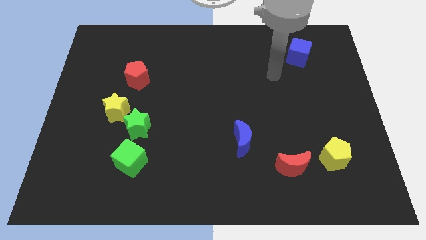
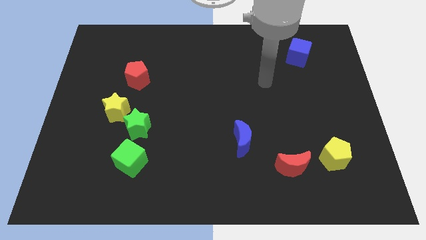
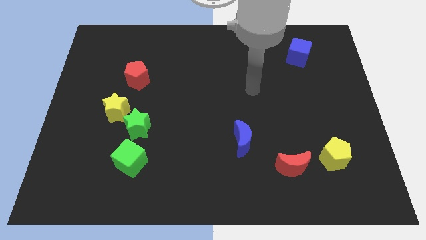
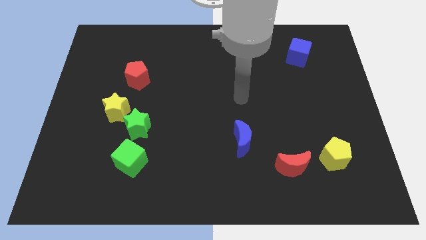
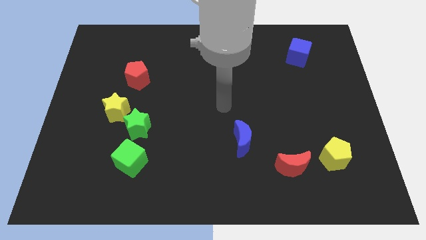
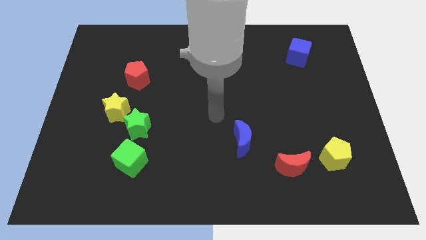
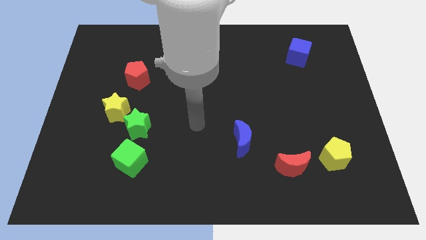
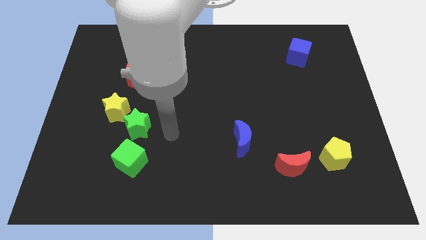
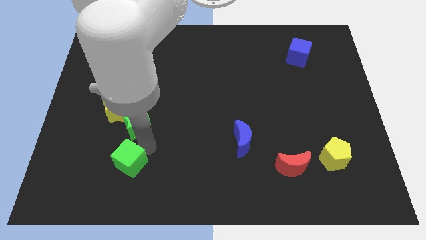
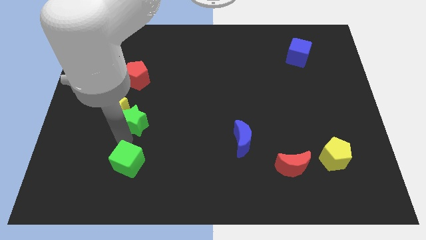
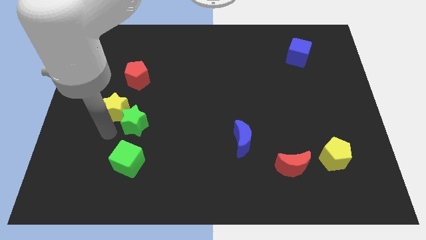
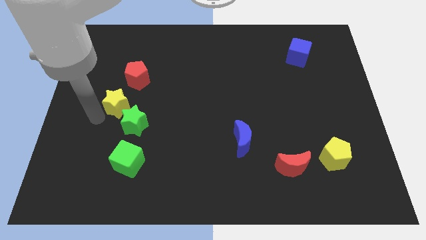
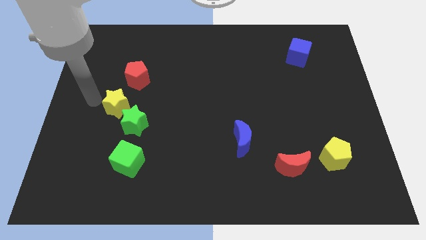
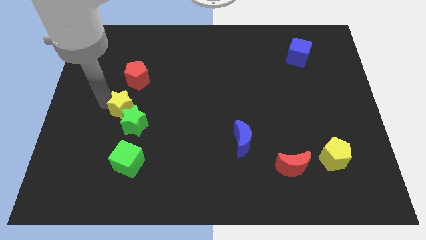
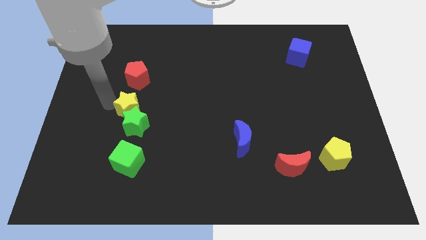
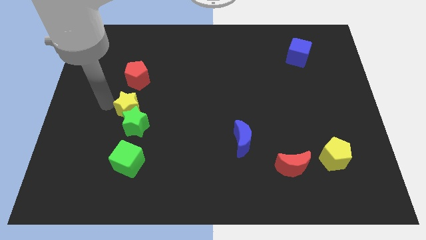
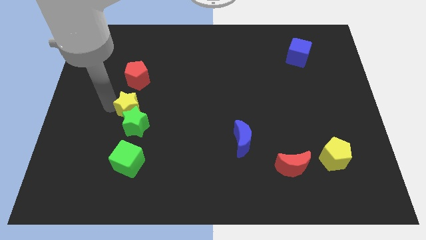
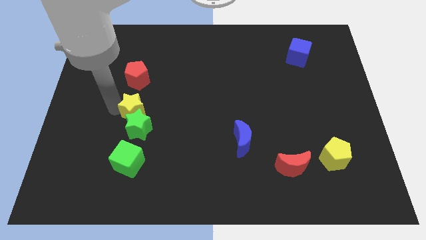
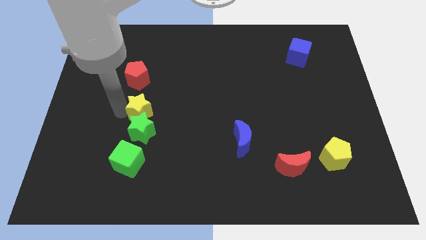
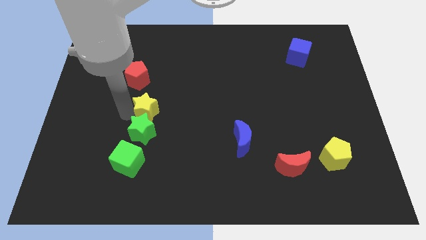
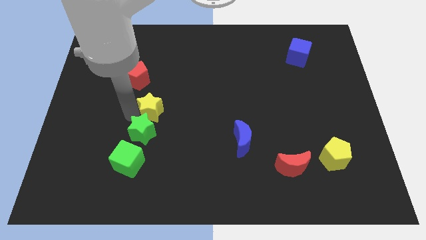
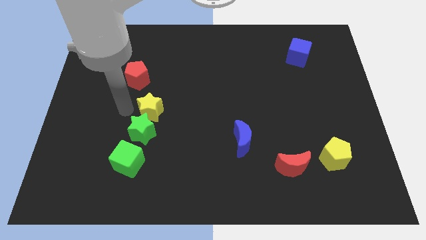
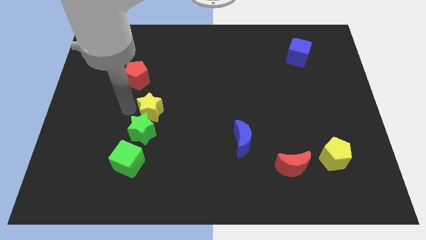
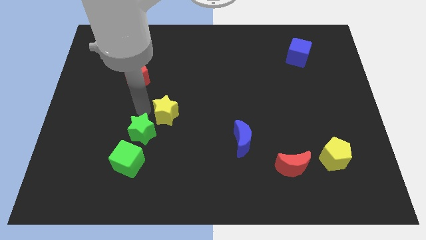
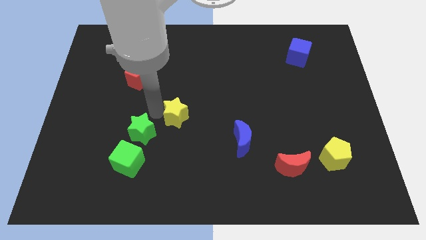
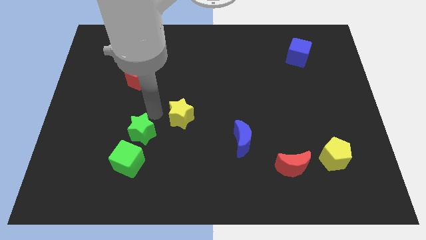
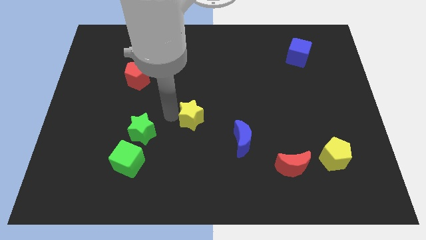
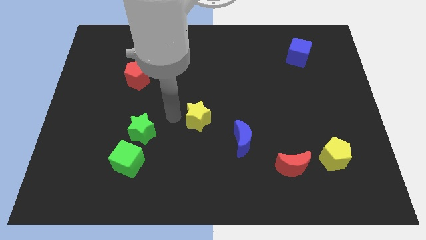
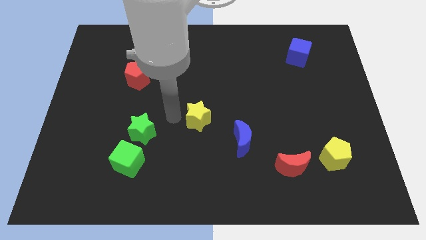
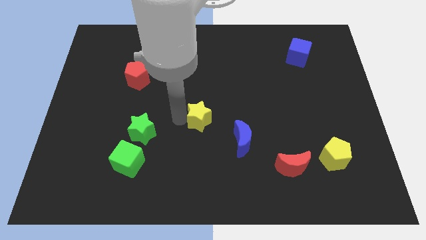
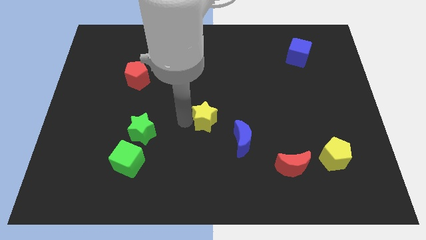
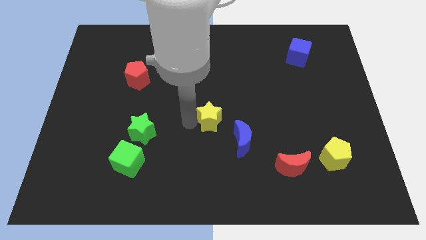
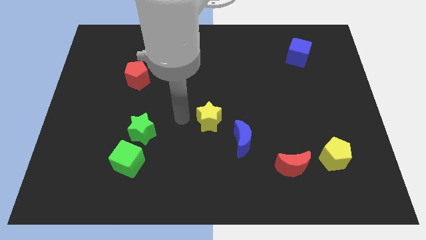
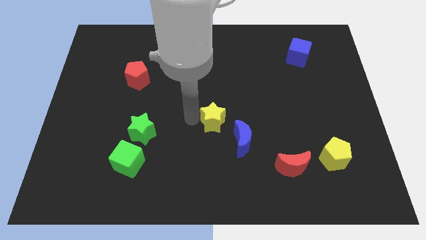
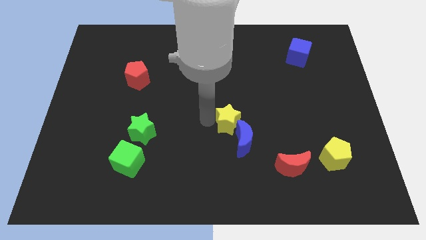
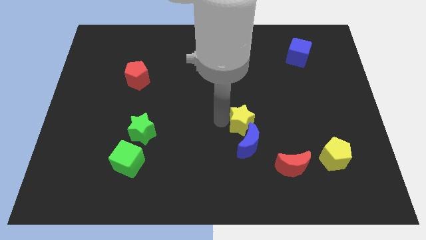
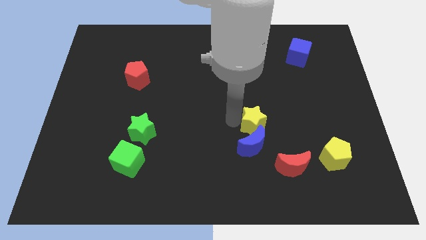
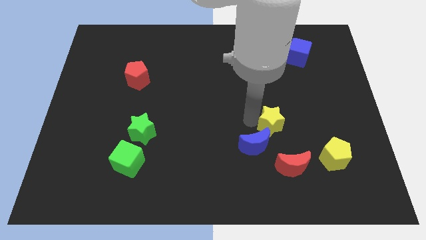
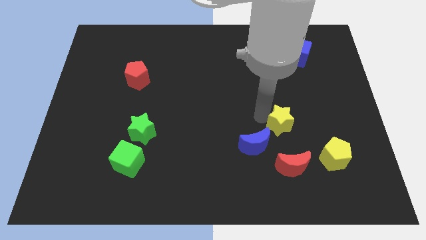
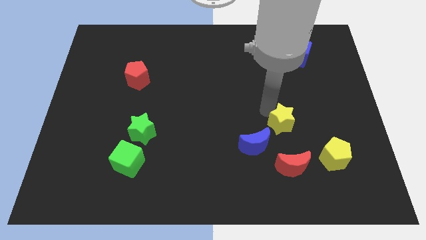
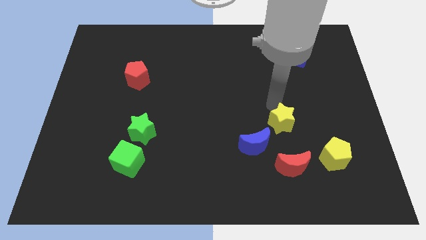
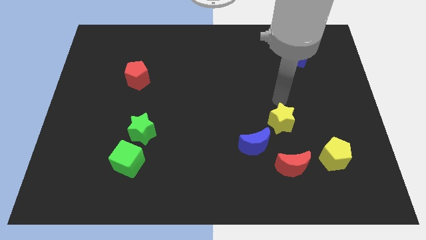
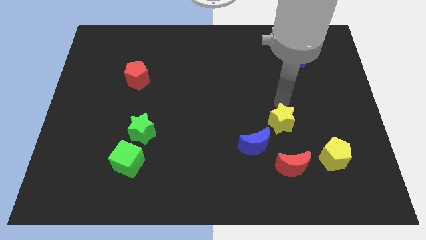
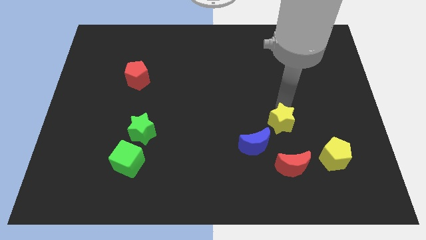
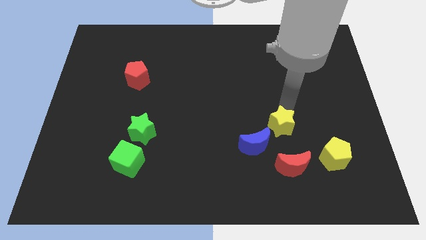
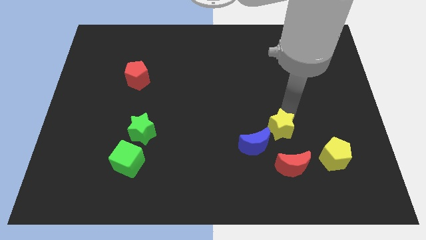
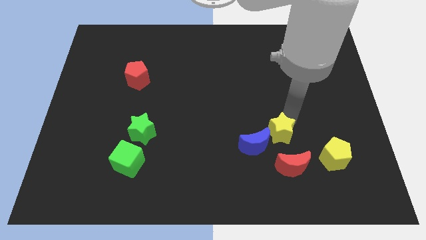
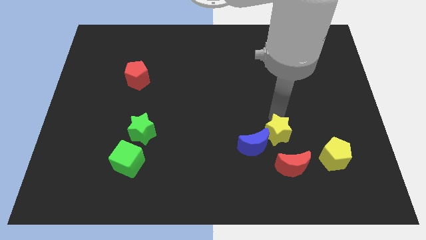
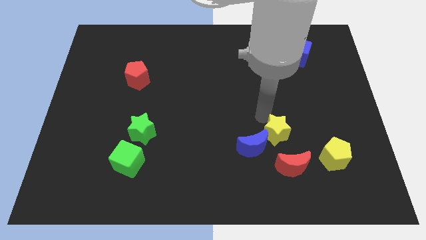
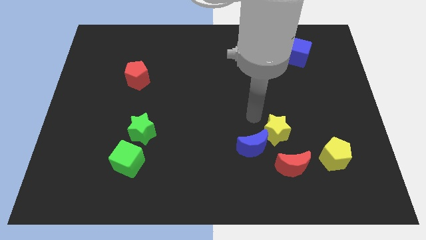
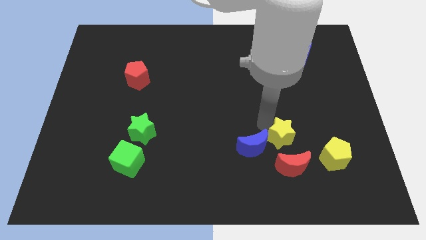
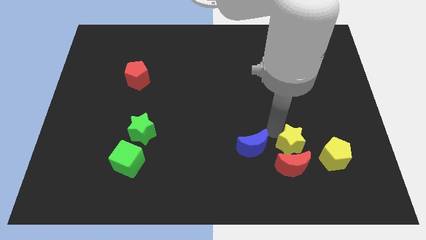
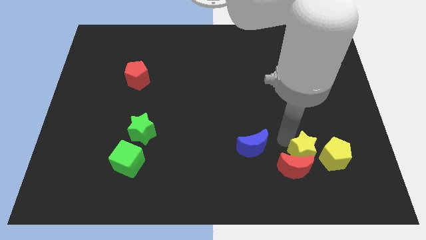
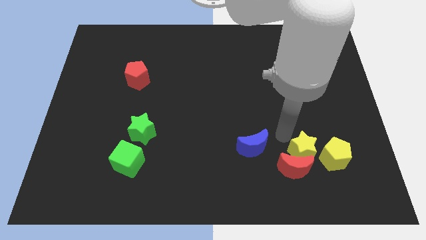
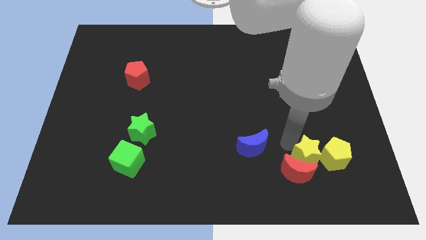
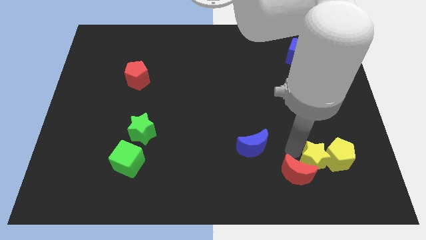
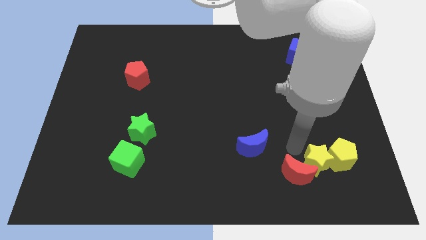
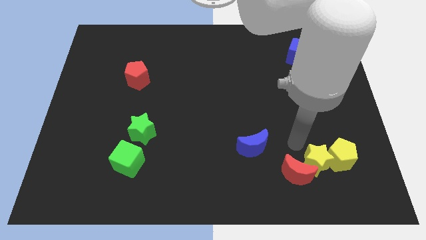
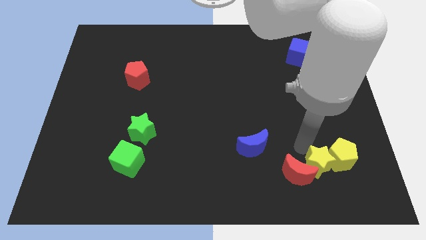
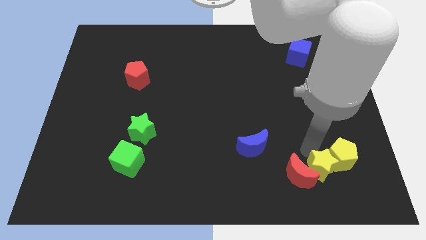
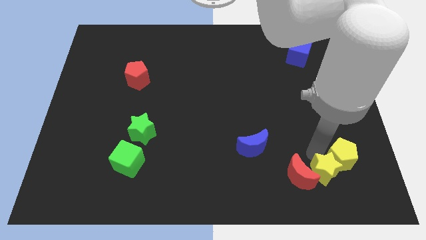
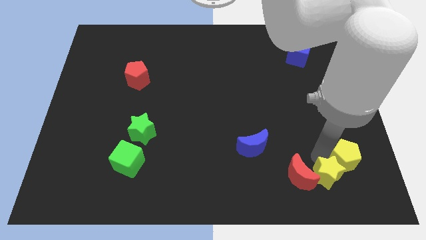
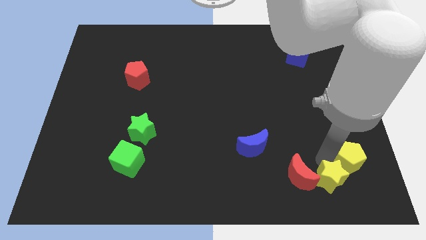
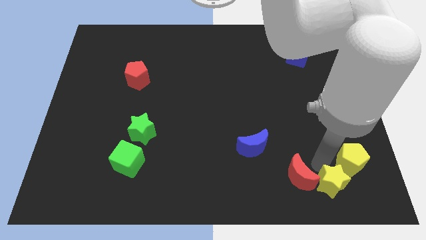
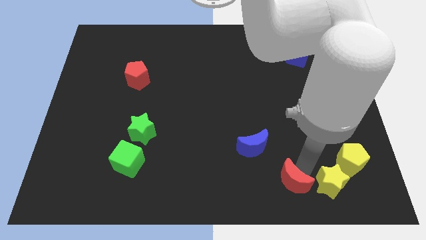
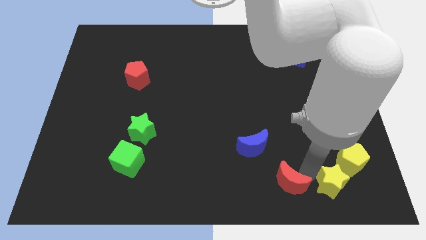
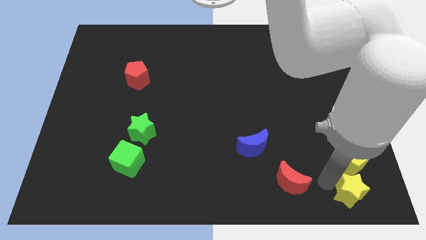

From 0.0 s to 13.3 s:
move the yellow star to the lower right corner
